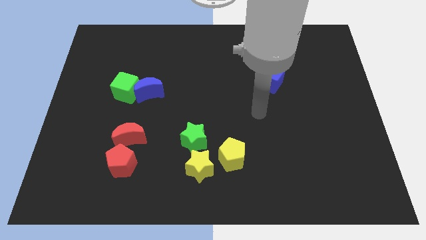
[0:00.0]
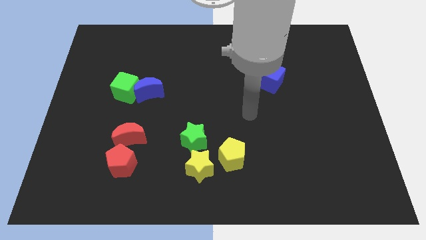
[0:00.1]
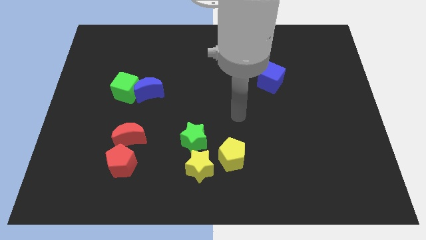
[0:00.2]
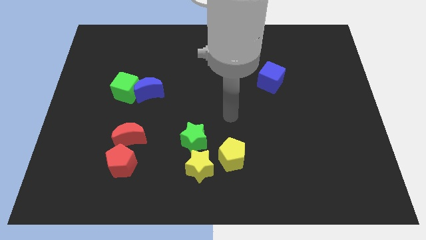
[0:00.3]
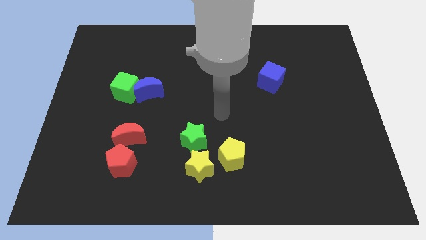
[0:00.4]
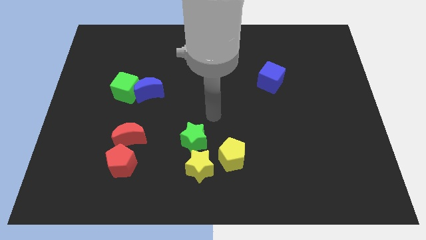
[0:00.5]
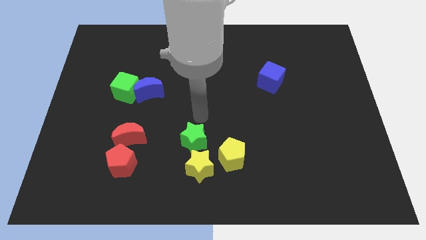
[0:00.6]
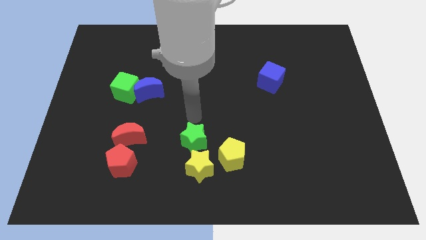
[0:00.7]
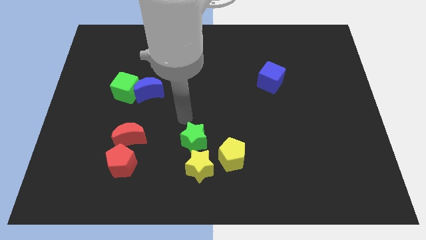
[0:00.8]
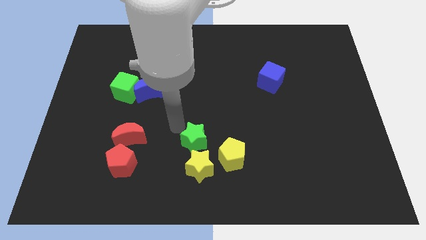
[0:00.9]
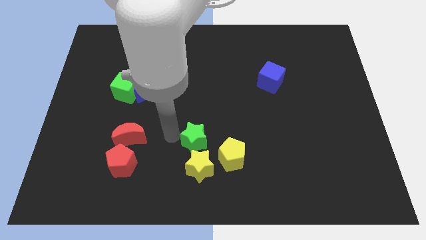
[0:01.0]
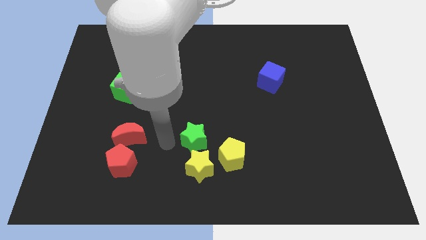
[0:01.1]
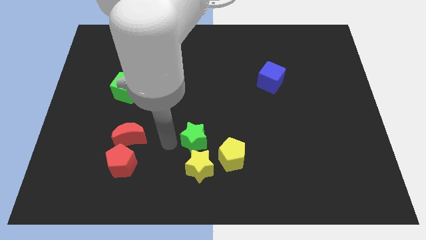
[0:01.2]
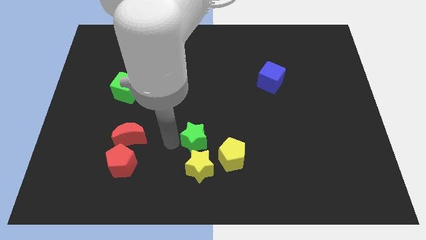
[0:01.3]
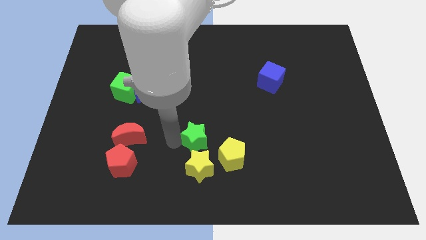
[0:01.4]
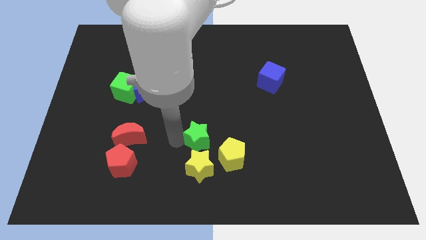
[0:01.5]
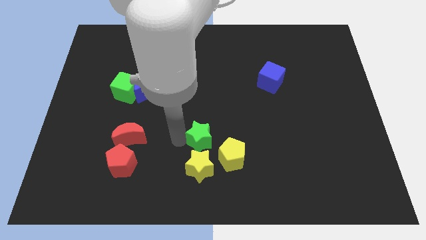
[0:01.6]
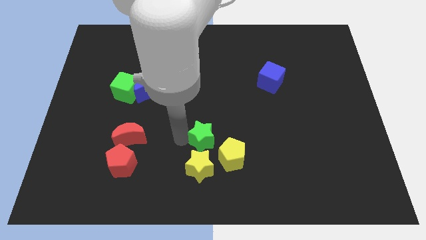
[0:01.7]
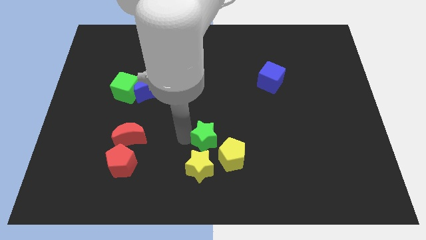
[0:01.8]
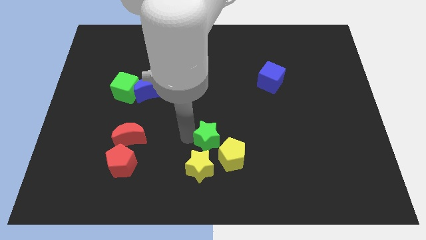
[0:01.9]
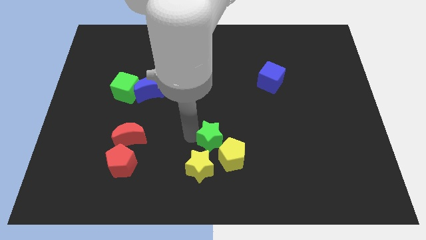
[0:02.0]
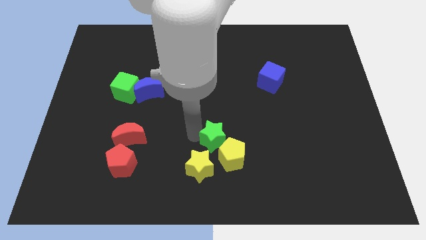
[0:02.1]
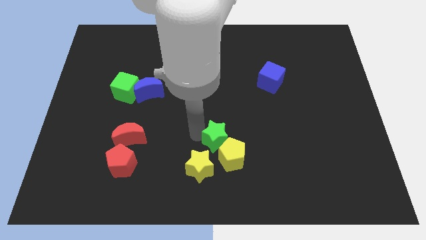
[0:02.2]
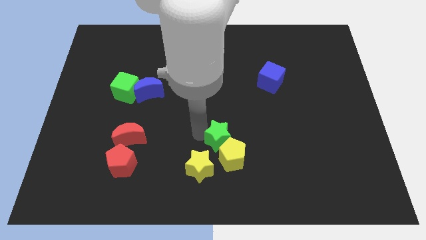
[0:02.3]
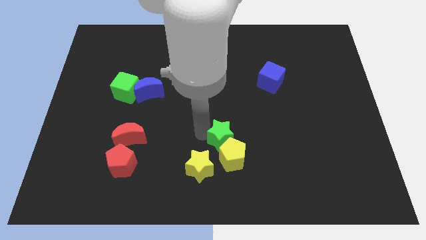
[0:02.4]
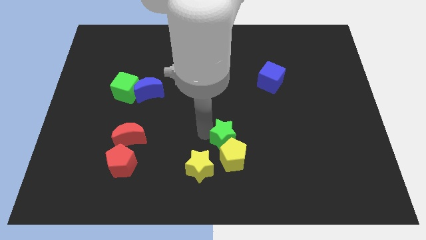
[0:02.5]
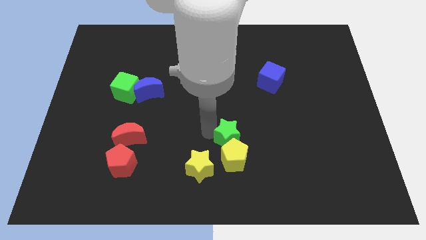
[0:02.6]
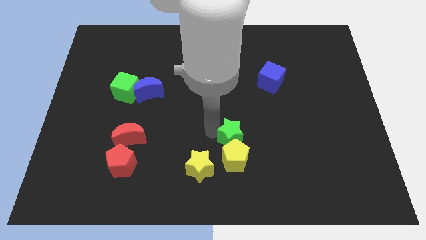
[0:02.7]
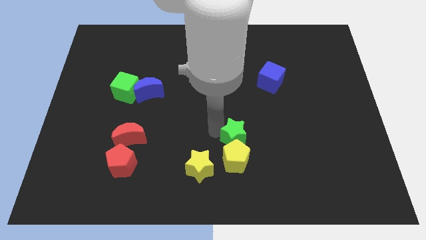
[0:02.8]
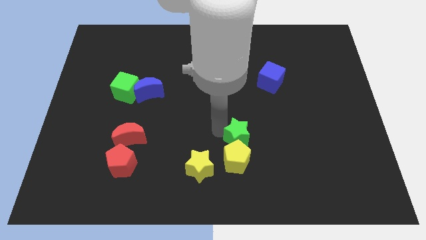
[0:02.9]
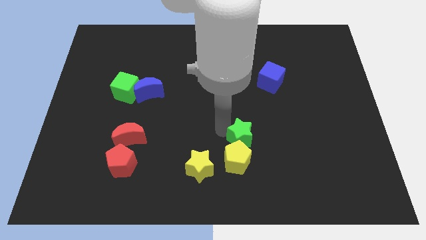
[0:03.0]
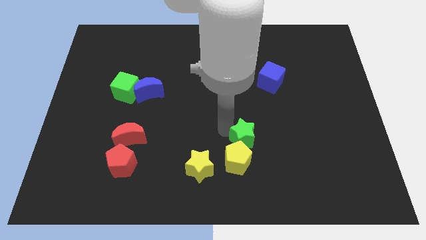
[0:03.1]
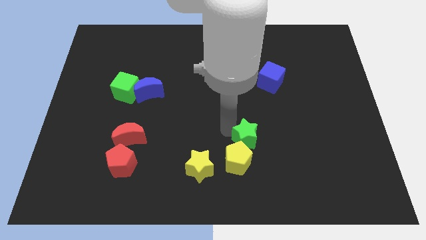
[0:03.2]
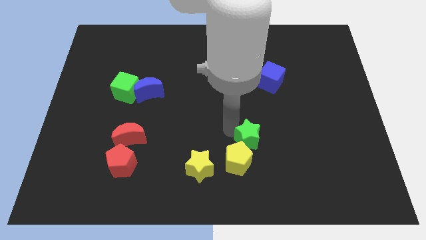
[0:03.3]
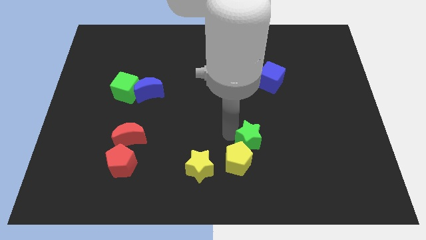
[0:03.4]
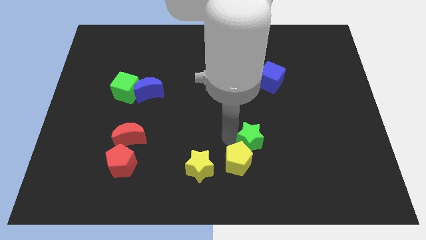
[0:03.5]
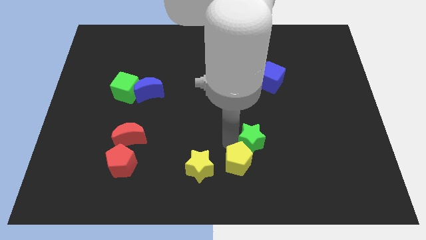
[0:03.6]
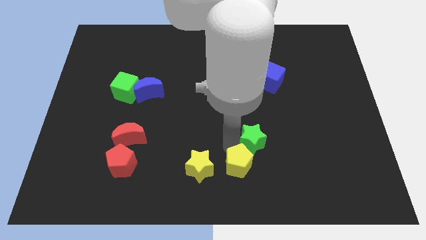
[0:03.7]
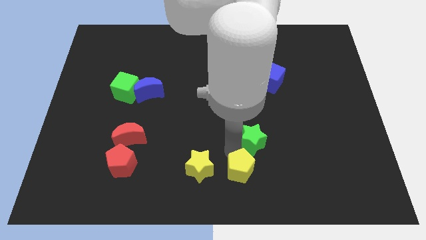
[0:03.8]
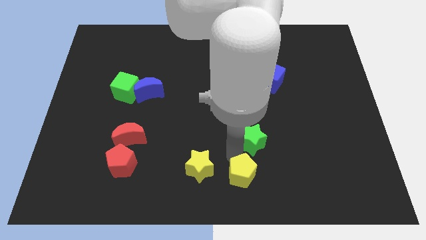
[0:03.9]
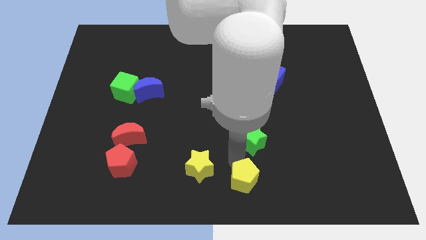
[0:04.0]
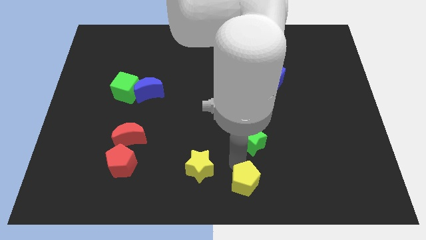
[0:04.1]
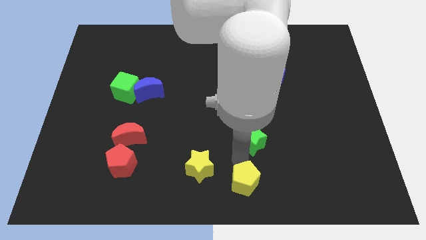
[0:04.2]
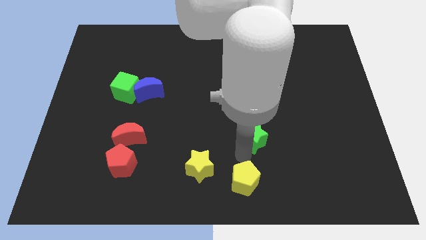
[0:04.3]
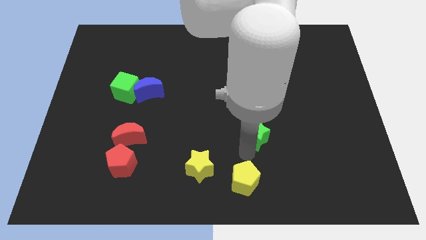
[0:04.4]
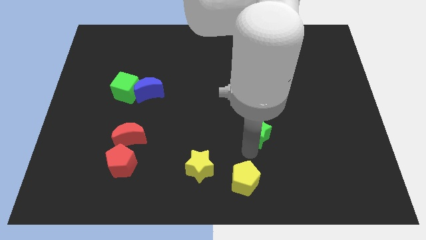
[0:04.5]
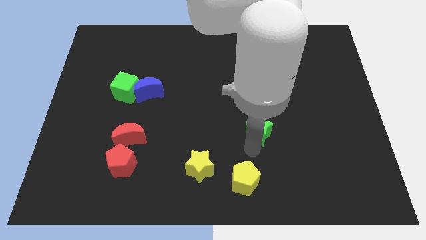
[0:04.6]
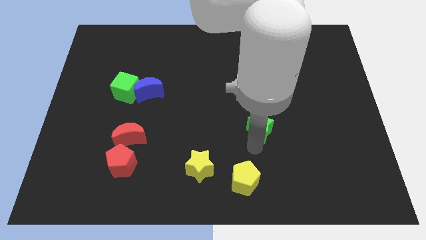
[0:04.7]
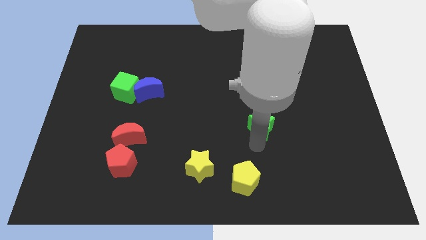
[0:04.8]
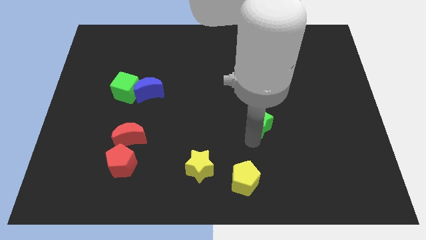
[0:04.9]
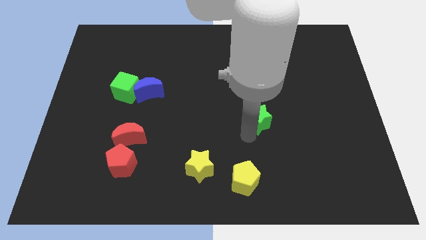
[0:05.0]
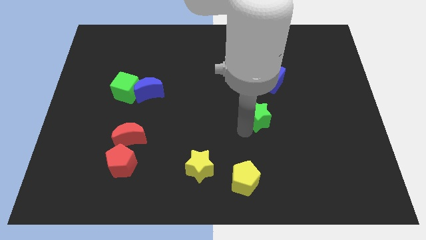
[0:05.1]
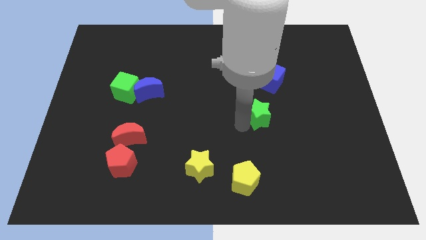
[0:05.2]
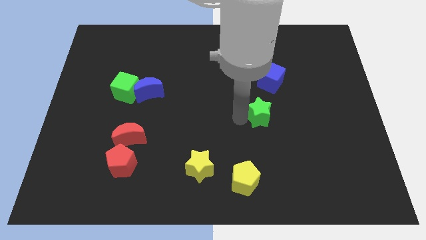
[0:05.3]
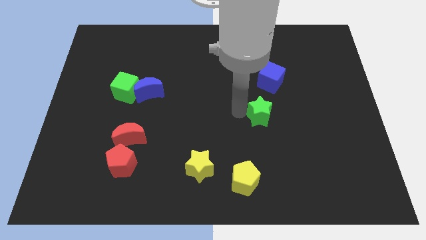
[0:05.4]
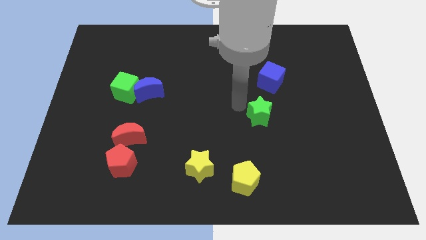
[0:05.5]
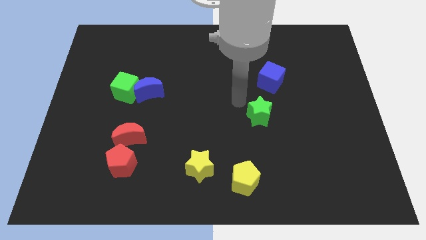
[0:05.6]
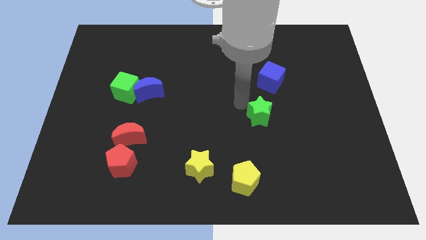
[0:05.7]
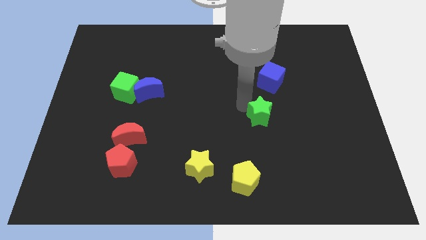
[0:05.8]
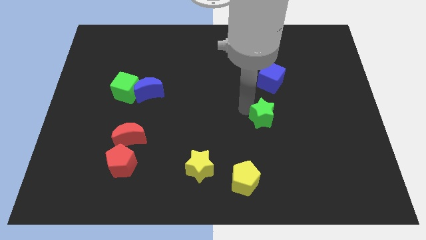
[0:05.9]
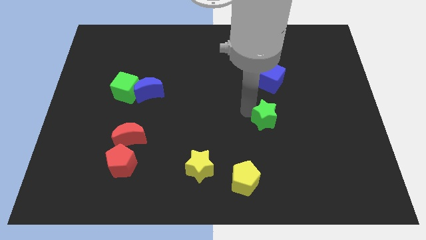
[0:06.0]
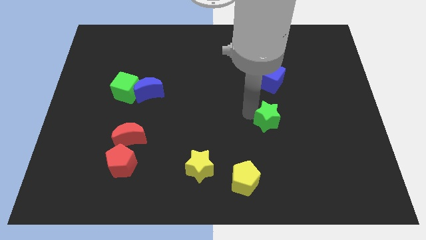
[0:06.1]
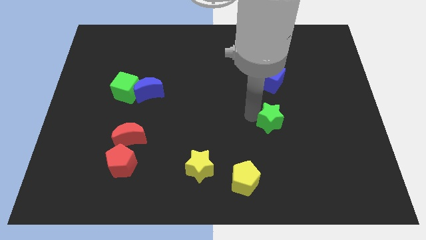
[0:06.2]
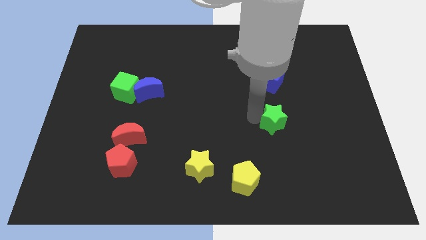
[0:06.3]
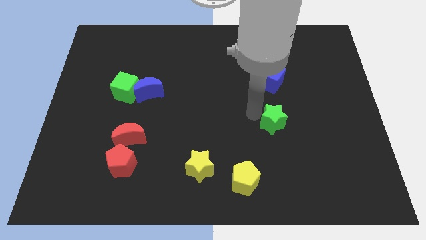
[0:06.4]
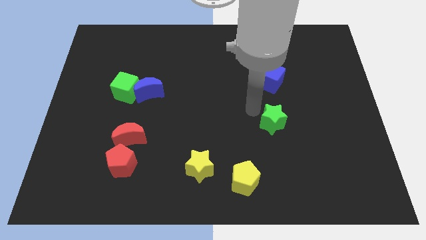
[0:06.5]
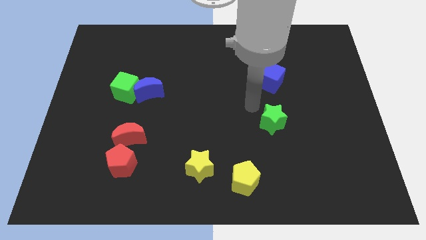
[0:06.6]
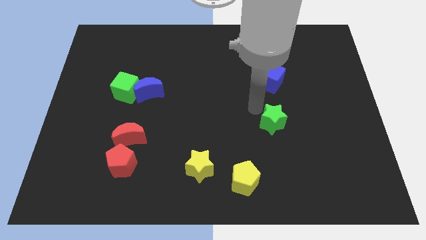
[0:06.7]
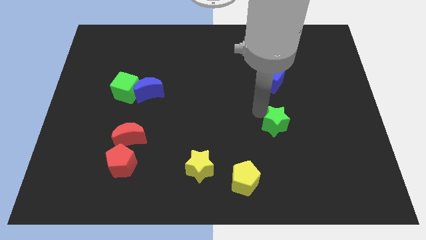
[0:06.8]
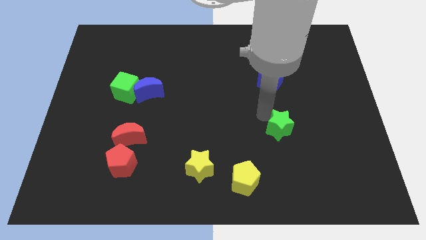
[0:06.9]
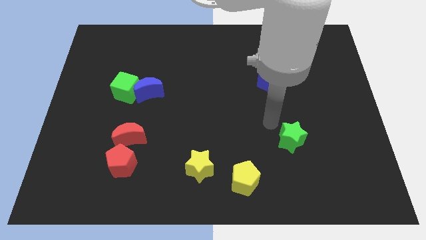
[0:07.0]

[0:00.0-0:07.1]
move the green star right

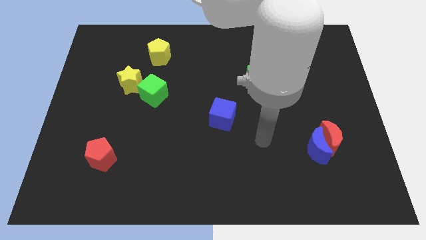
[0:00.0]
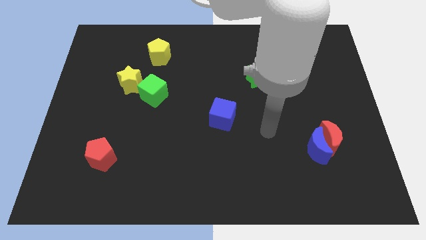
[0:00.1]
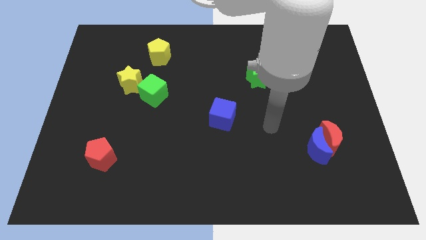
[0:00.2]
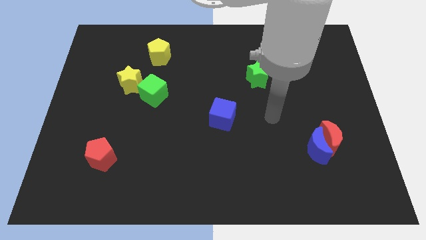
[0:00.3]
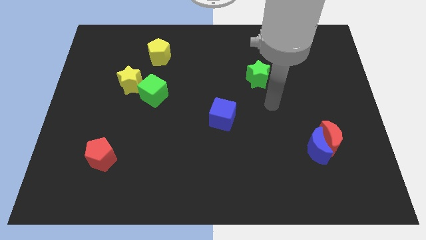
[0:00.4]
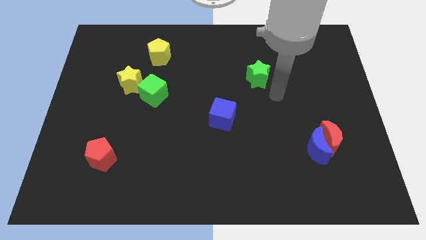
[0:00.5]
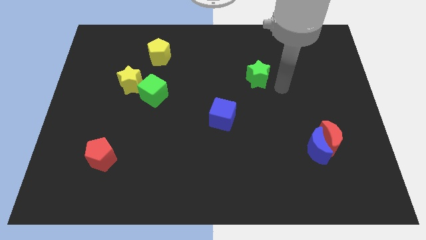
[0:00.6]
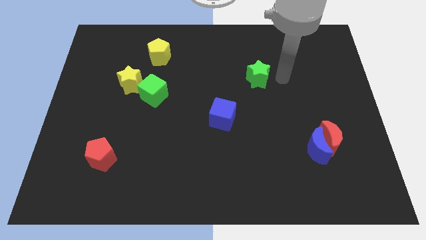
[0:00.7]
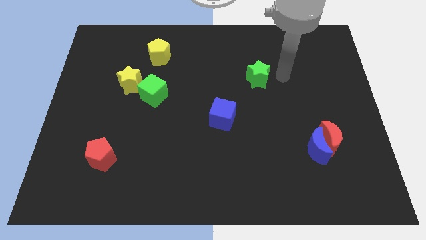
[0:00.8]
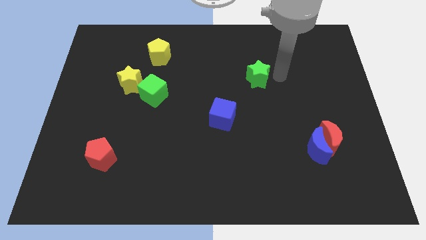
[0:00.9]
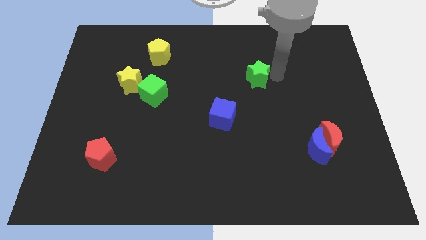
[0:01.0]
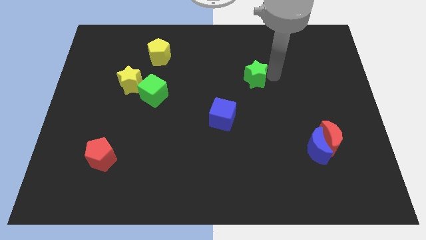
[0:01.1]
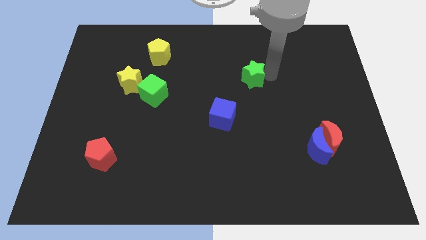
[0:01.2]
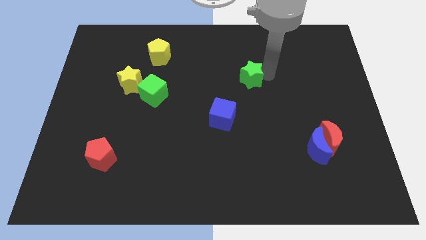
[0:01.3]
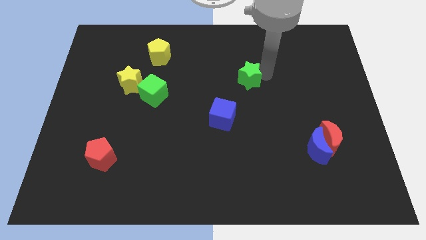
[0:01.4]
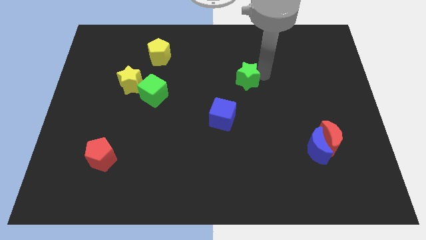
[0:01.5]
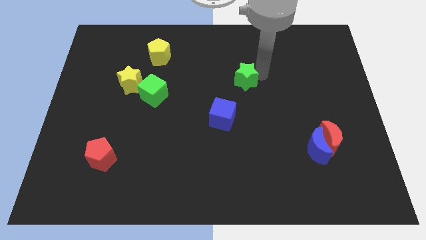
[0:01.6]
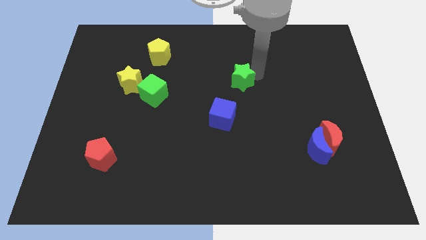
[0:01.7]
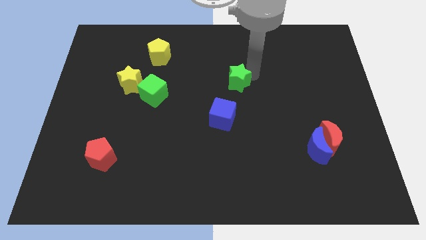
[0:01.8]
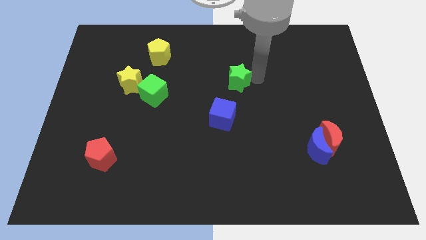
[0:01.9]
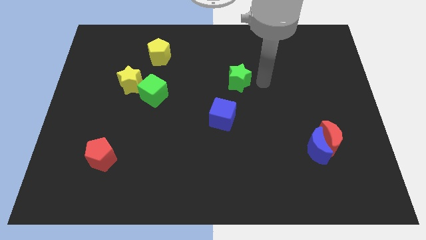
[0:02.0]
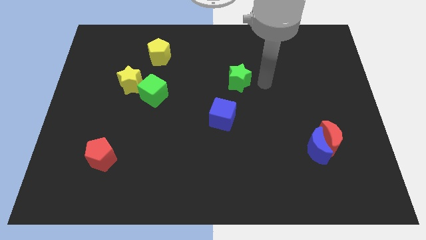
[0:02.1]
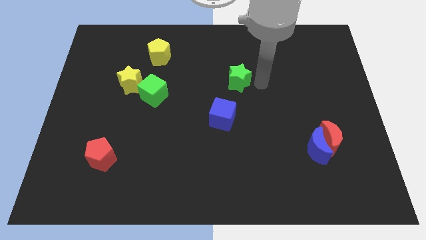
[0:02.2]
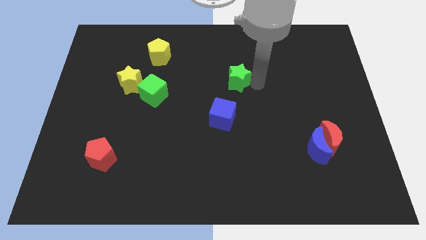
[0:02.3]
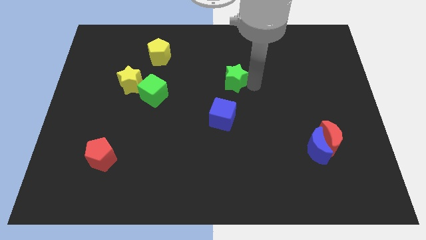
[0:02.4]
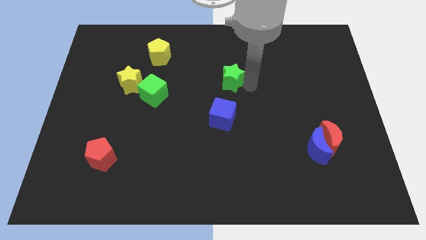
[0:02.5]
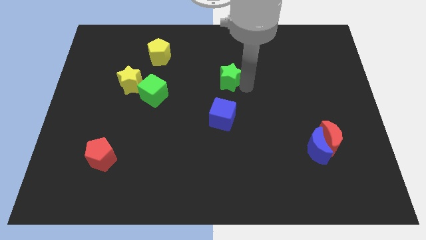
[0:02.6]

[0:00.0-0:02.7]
slightly move the green star to the left
